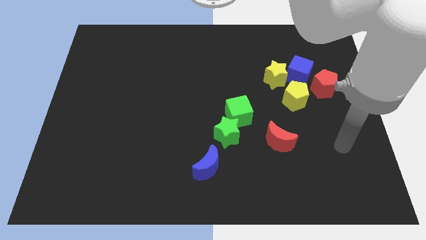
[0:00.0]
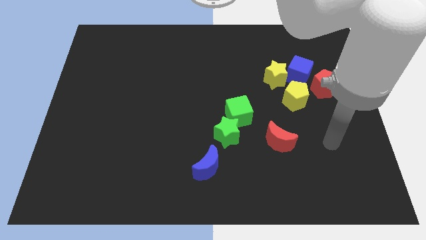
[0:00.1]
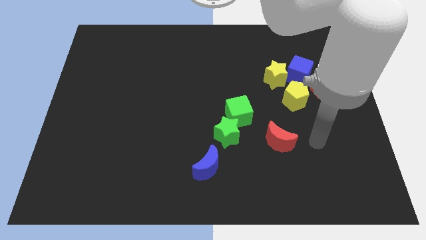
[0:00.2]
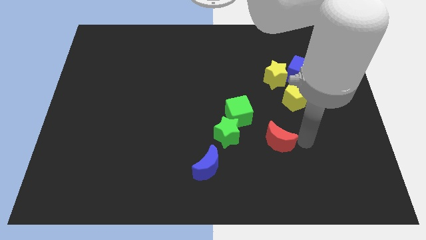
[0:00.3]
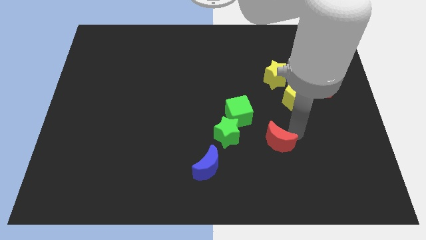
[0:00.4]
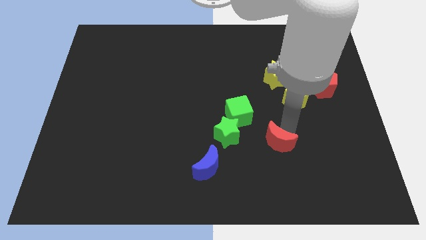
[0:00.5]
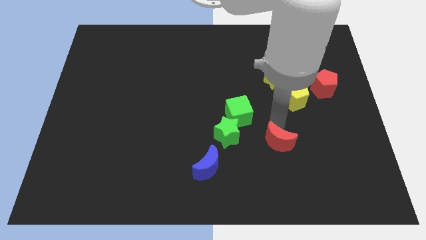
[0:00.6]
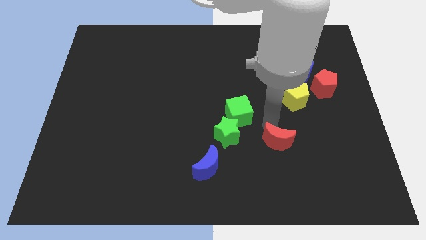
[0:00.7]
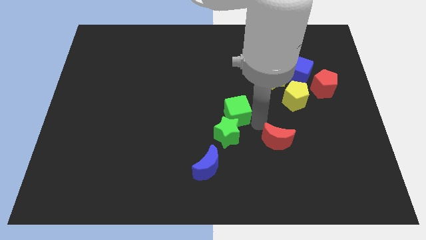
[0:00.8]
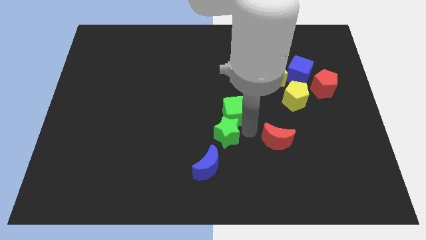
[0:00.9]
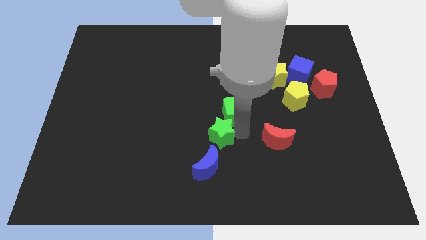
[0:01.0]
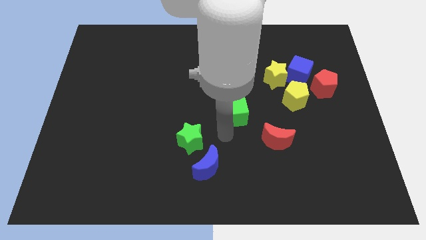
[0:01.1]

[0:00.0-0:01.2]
separate the green cube from the green star

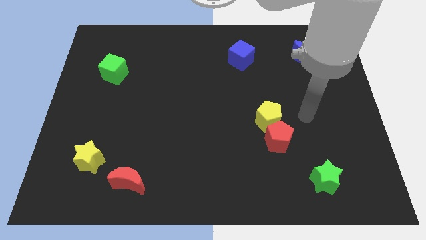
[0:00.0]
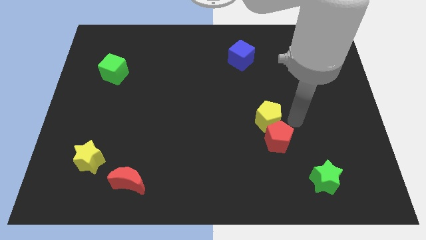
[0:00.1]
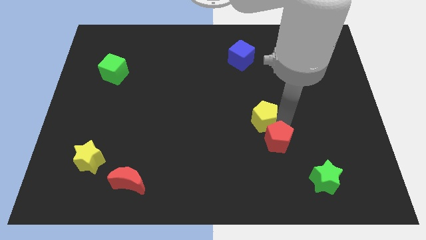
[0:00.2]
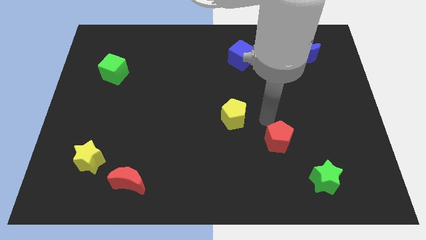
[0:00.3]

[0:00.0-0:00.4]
move the red pentagon away from the yellow pentagon

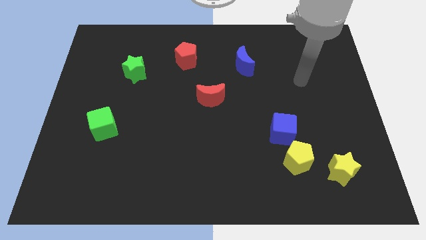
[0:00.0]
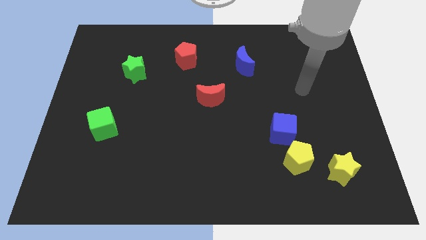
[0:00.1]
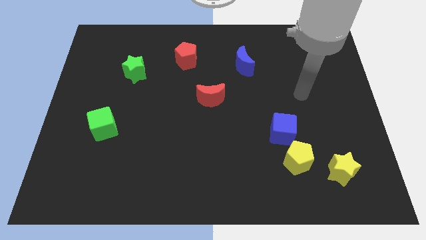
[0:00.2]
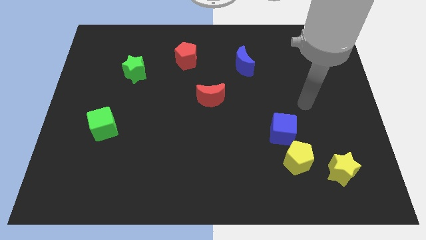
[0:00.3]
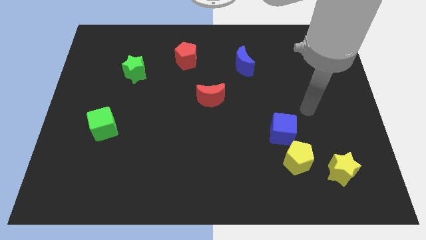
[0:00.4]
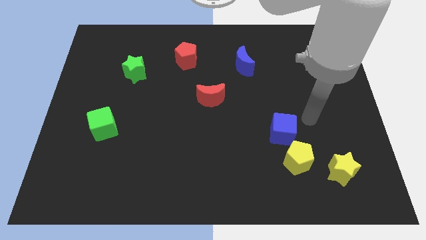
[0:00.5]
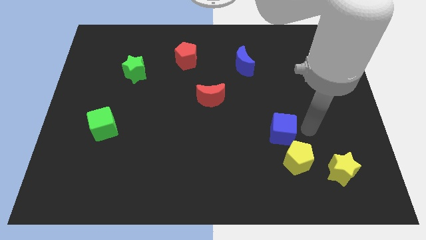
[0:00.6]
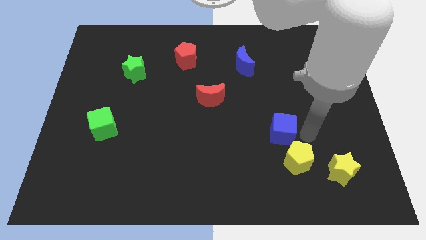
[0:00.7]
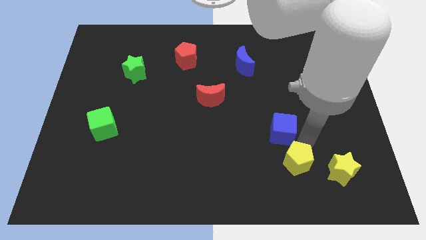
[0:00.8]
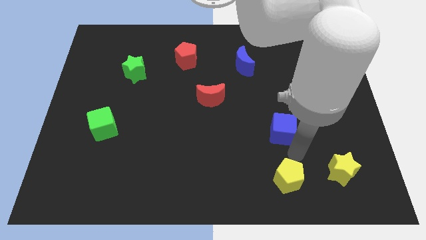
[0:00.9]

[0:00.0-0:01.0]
separate the blue cube from the yellow pentagon

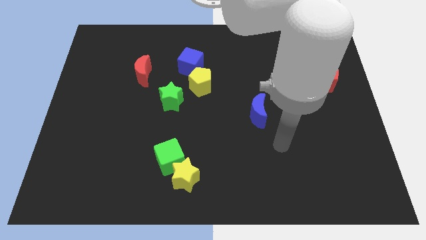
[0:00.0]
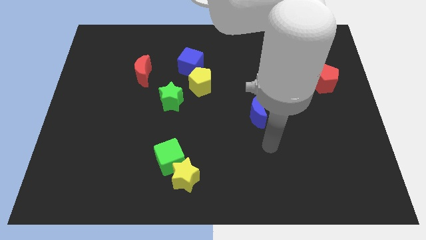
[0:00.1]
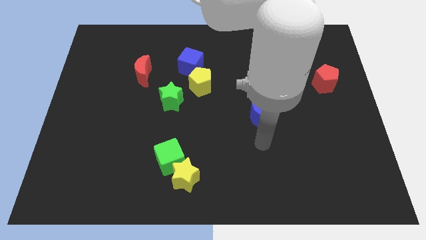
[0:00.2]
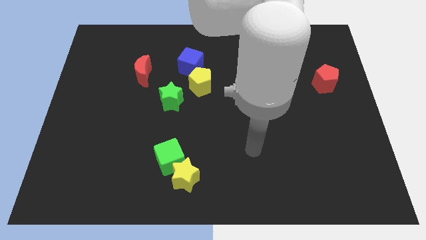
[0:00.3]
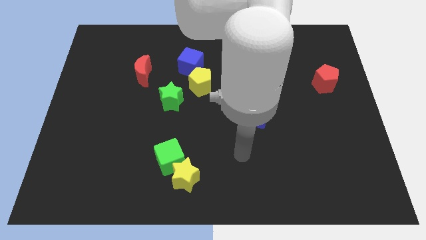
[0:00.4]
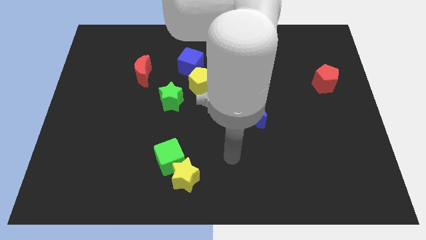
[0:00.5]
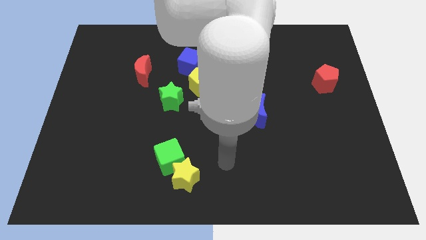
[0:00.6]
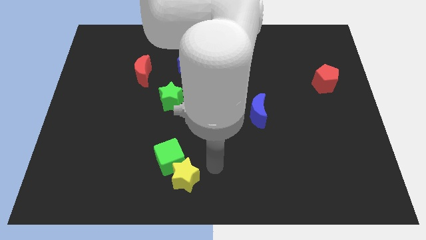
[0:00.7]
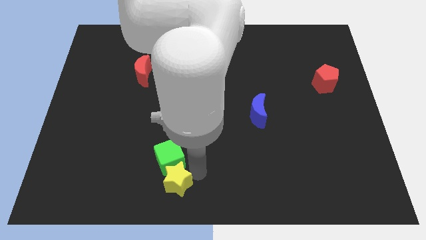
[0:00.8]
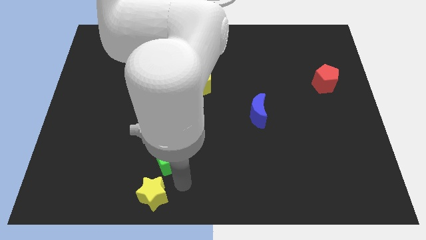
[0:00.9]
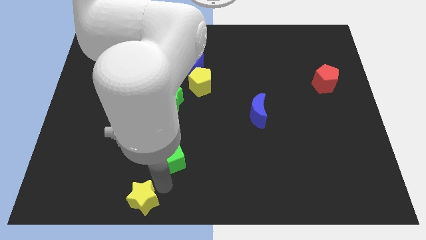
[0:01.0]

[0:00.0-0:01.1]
separate the green cube from the yellow star

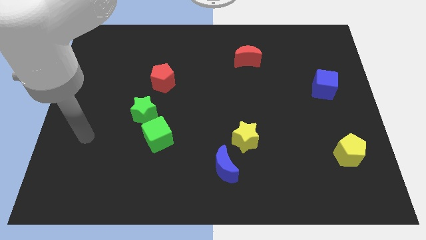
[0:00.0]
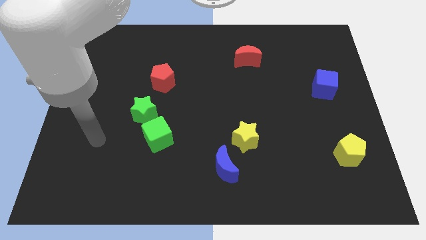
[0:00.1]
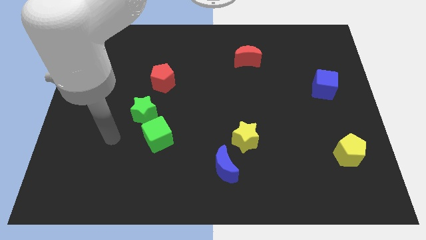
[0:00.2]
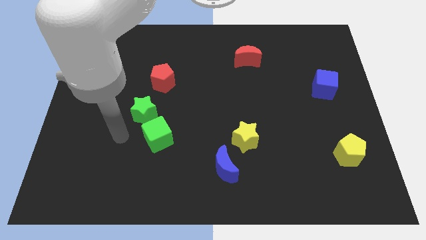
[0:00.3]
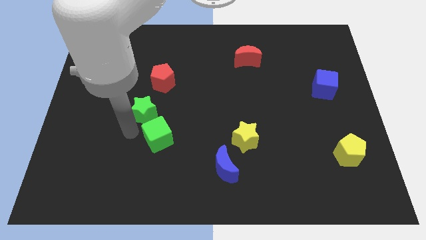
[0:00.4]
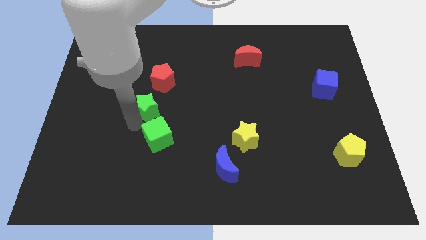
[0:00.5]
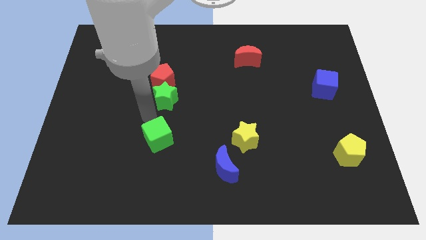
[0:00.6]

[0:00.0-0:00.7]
move the green cube away from the green star

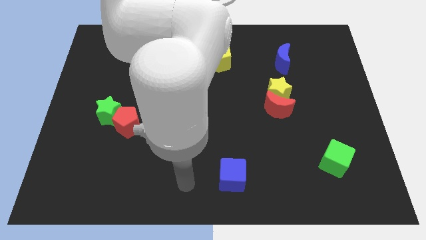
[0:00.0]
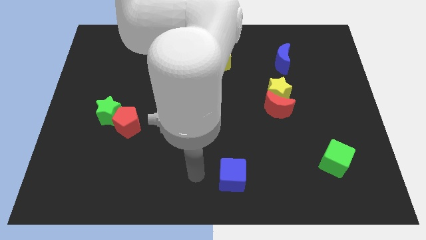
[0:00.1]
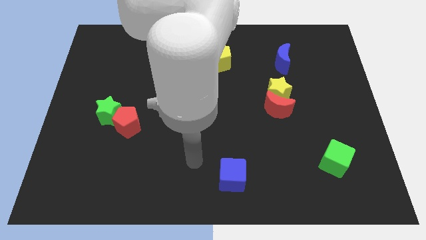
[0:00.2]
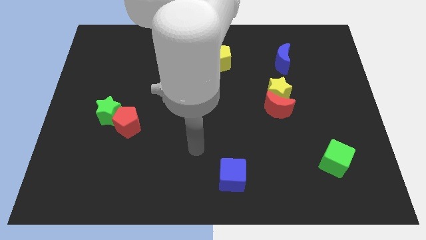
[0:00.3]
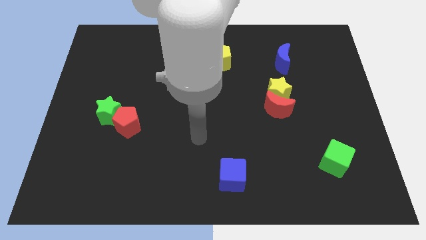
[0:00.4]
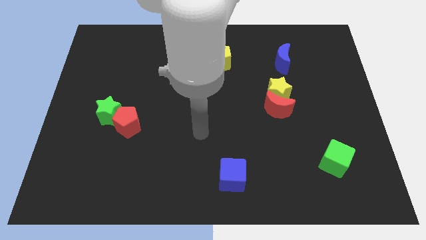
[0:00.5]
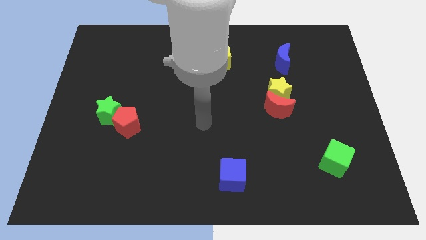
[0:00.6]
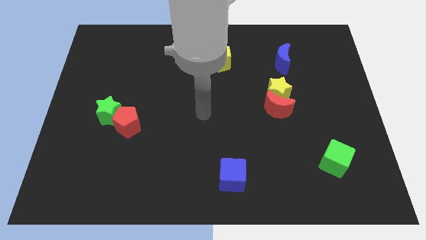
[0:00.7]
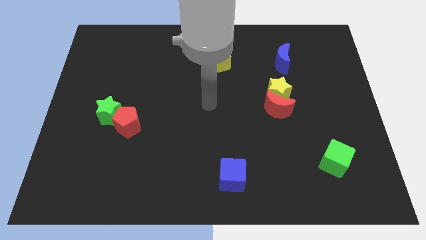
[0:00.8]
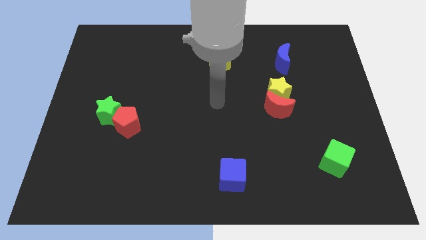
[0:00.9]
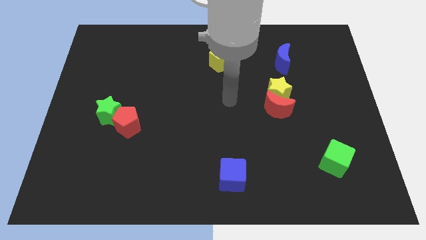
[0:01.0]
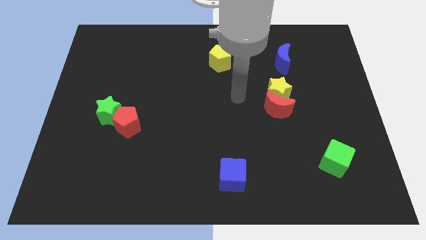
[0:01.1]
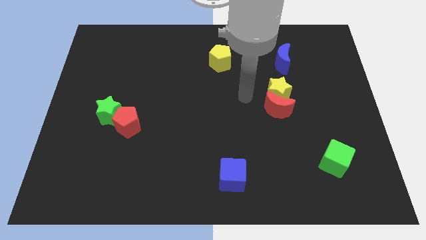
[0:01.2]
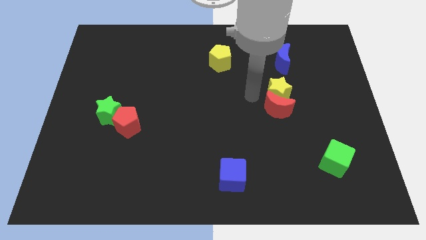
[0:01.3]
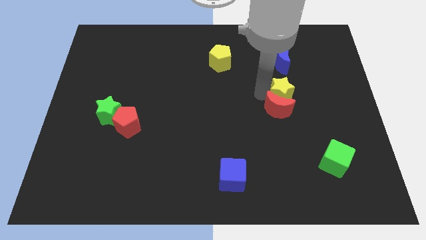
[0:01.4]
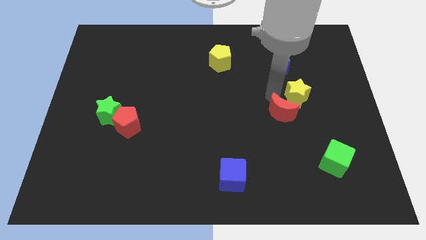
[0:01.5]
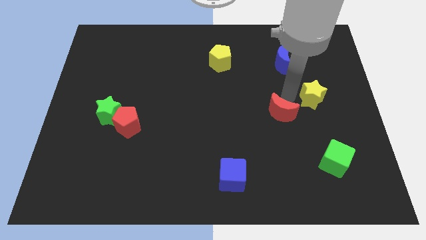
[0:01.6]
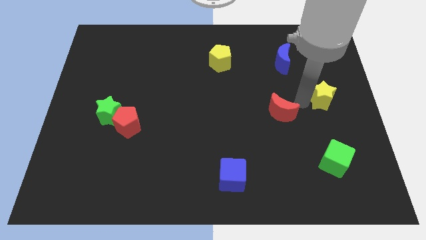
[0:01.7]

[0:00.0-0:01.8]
pull the red moon apart from the yellow star

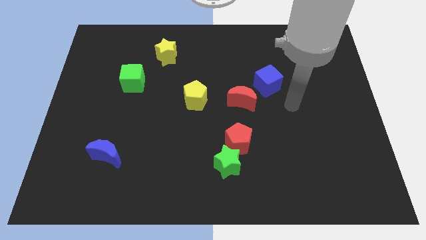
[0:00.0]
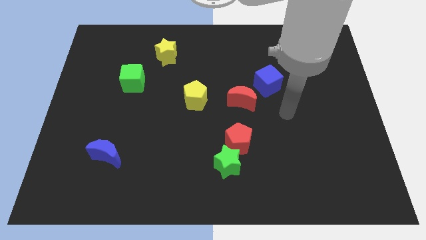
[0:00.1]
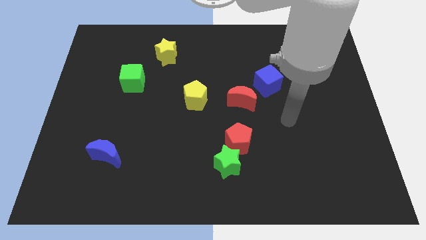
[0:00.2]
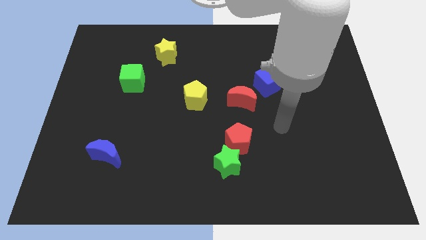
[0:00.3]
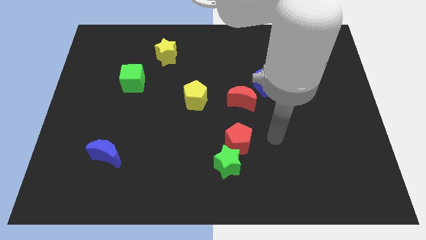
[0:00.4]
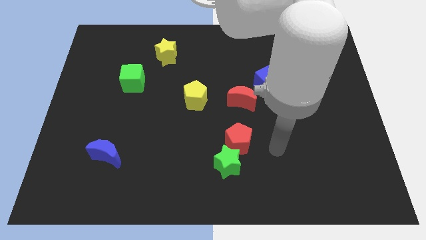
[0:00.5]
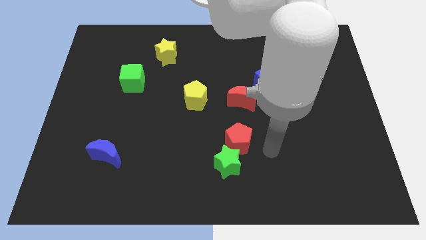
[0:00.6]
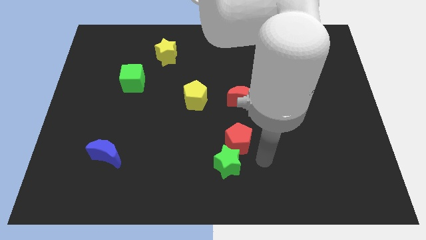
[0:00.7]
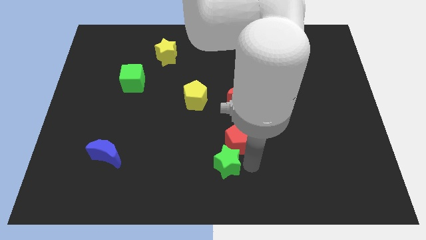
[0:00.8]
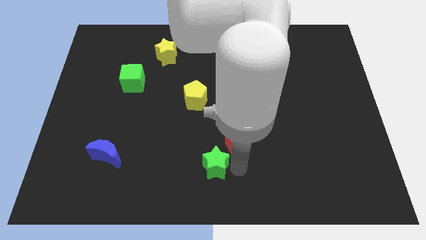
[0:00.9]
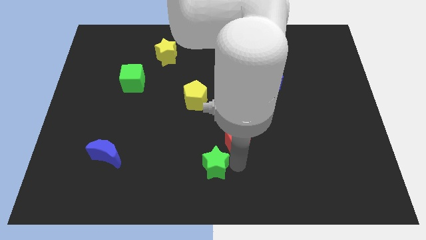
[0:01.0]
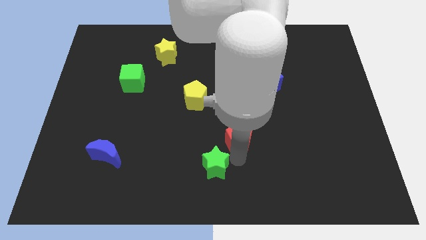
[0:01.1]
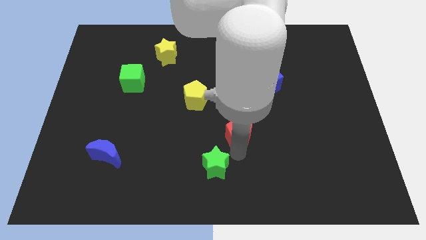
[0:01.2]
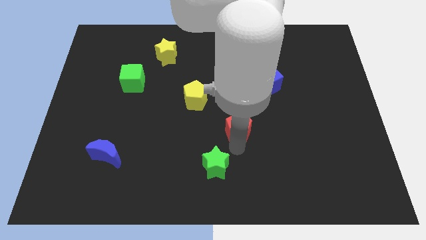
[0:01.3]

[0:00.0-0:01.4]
move the red pentagon away from the green star

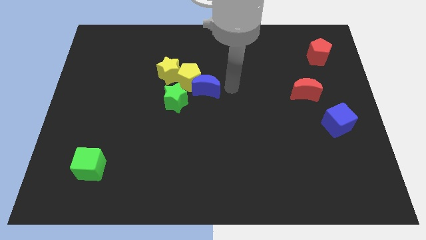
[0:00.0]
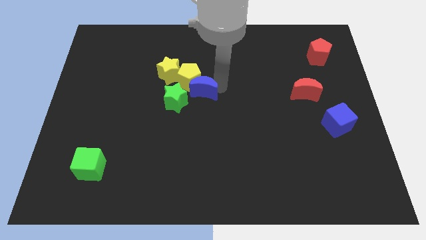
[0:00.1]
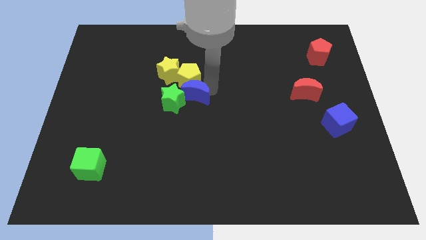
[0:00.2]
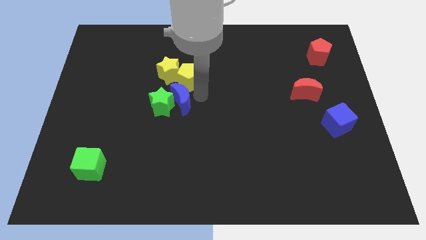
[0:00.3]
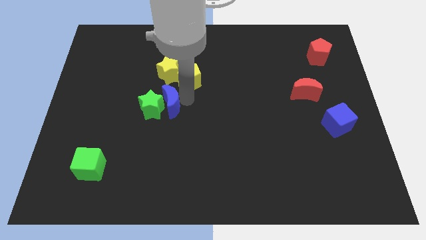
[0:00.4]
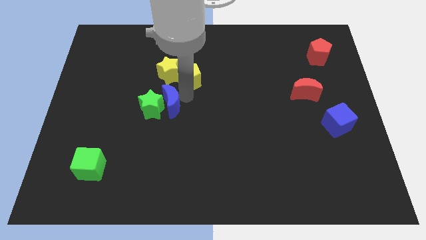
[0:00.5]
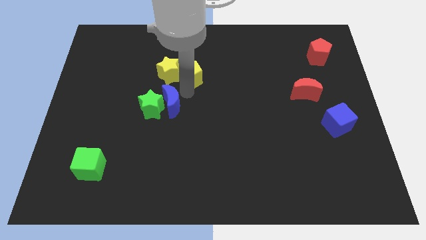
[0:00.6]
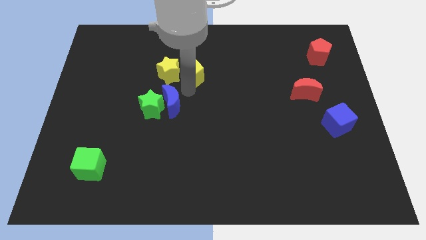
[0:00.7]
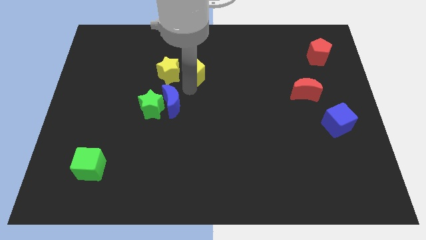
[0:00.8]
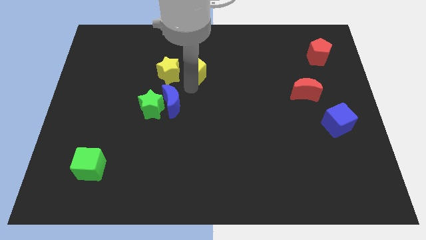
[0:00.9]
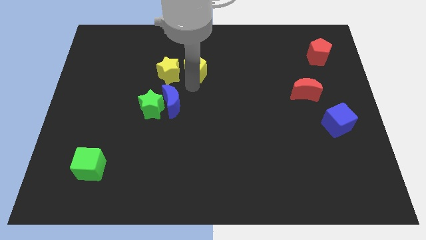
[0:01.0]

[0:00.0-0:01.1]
pull the yellow pentagon apart from the clump

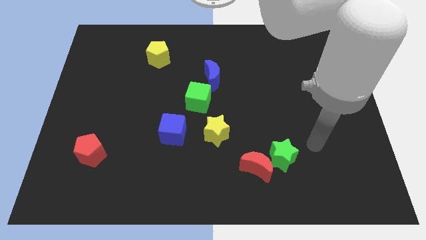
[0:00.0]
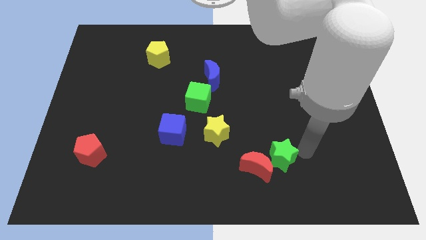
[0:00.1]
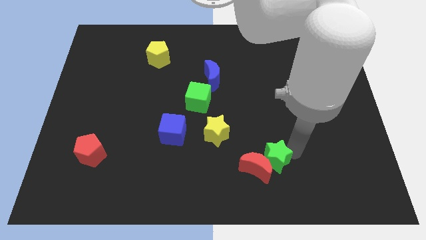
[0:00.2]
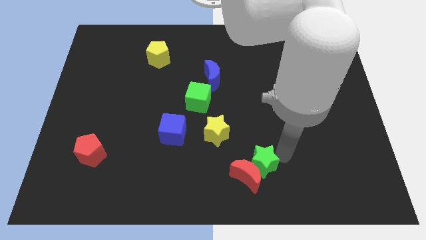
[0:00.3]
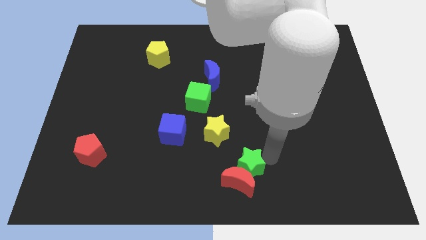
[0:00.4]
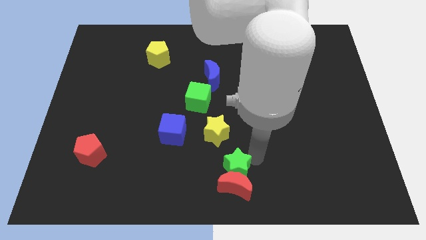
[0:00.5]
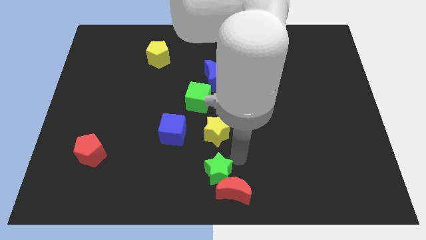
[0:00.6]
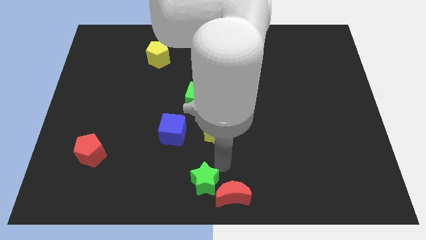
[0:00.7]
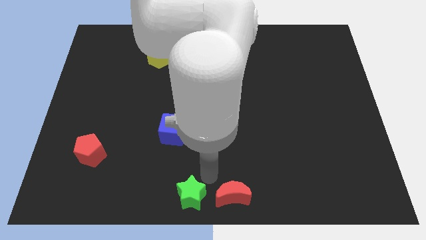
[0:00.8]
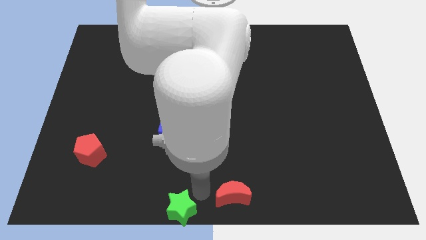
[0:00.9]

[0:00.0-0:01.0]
move the red moon away from the green star
